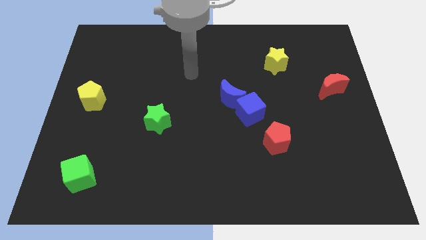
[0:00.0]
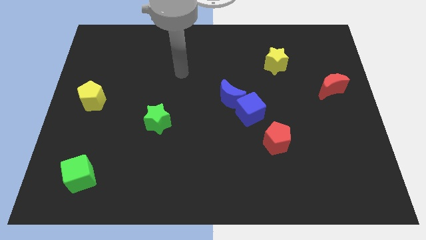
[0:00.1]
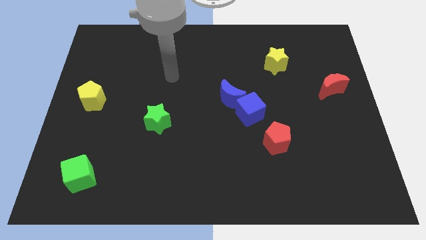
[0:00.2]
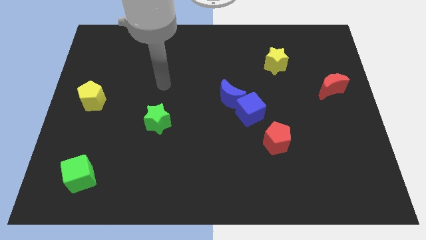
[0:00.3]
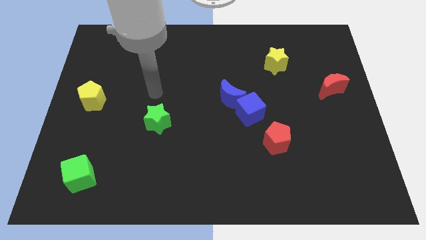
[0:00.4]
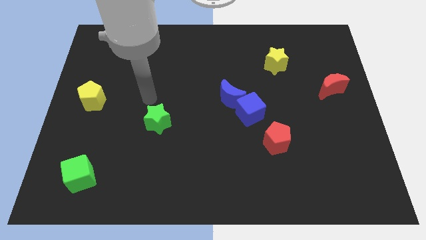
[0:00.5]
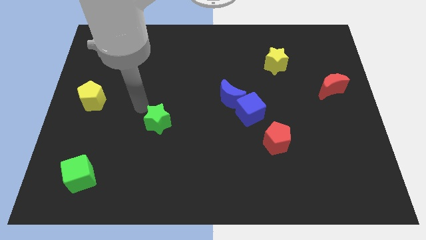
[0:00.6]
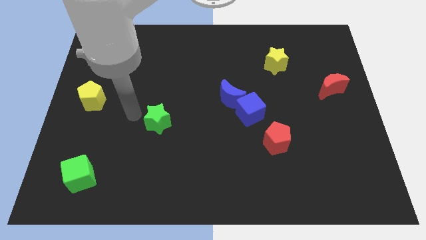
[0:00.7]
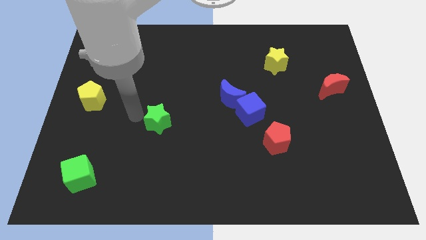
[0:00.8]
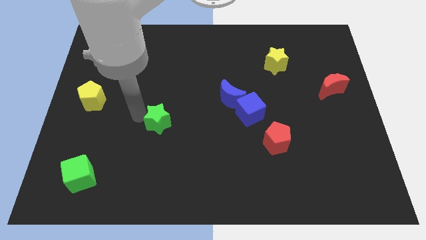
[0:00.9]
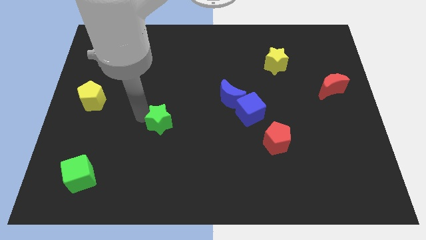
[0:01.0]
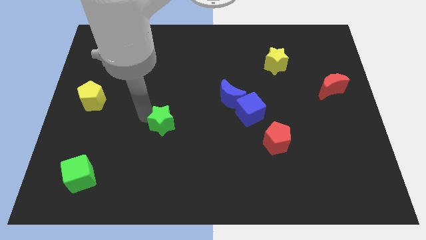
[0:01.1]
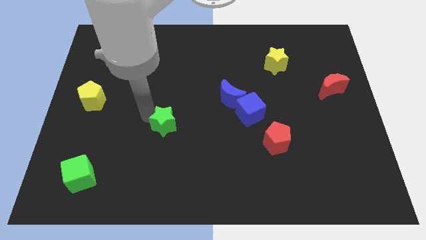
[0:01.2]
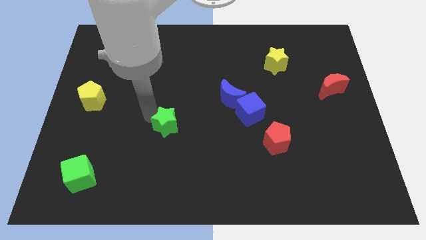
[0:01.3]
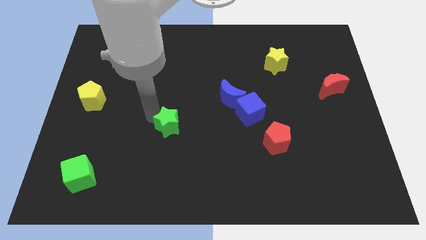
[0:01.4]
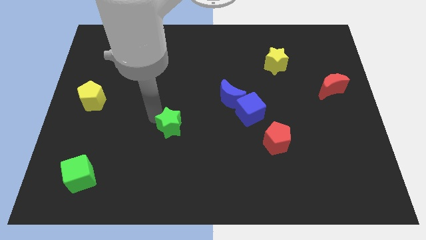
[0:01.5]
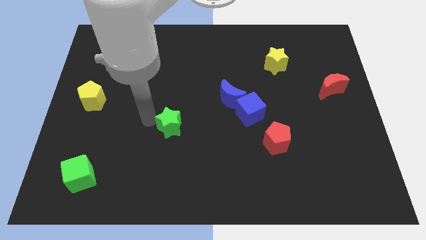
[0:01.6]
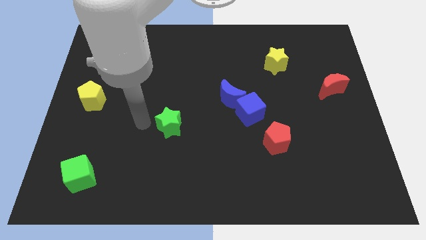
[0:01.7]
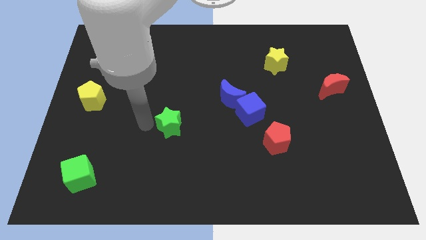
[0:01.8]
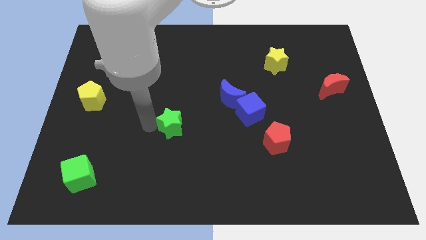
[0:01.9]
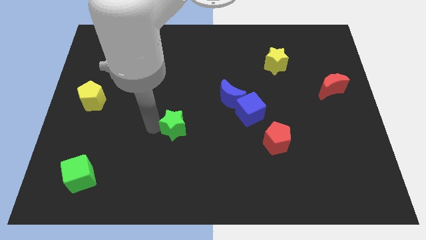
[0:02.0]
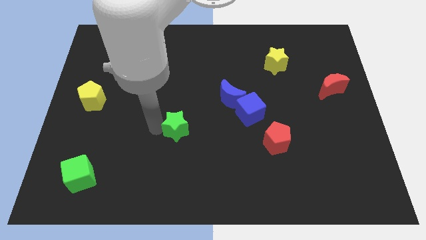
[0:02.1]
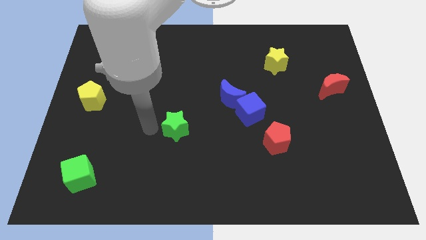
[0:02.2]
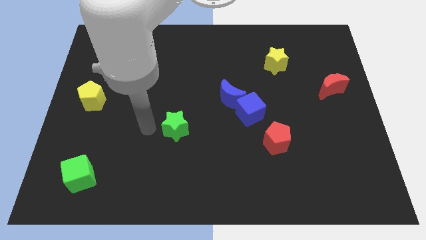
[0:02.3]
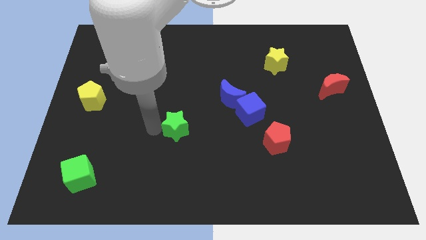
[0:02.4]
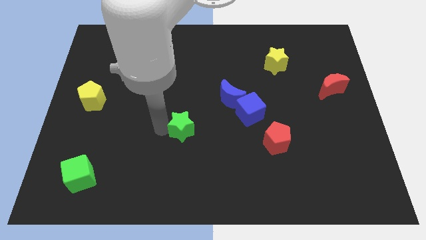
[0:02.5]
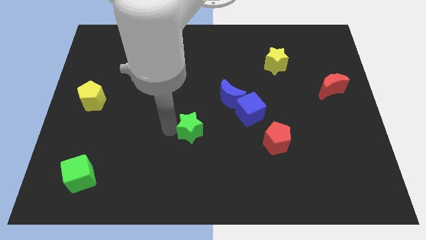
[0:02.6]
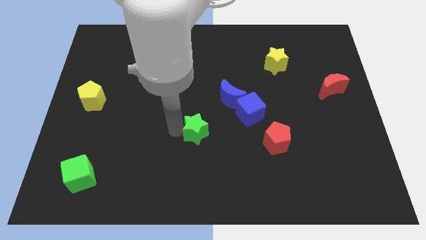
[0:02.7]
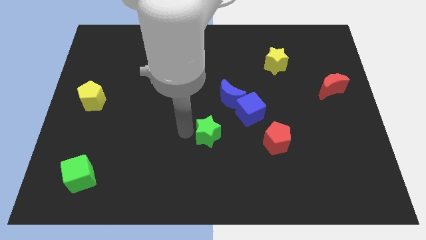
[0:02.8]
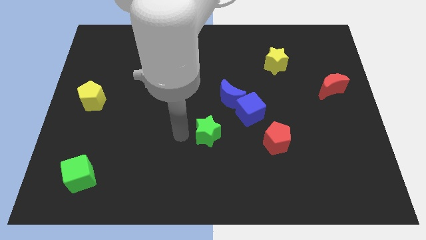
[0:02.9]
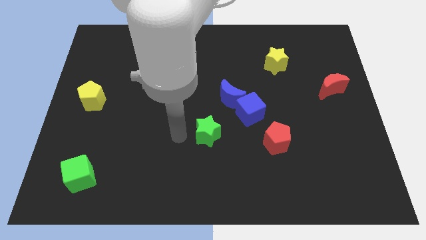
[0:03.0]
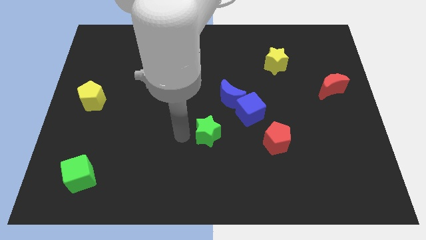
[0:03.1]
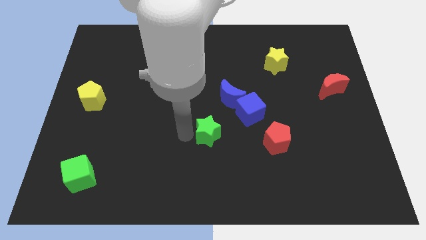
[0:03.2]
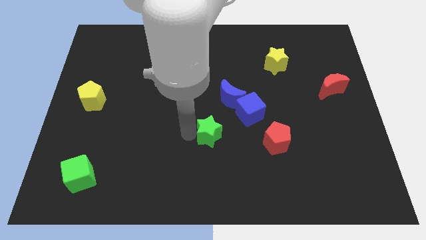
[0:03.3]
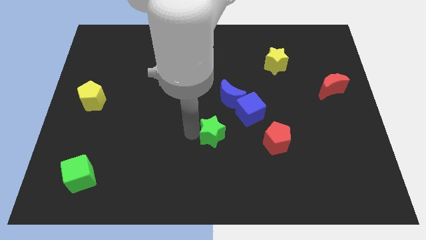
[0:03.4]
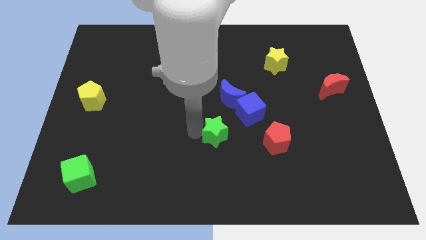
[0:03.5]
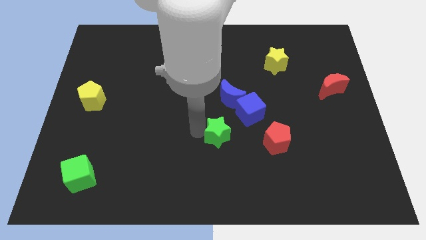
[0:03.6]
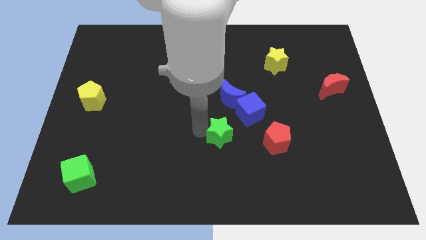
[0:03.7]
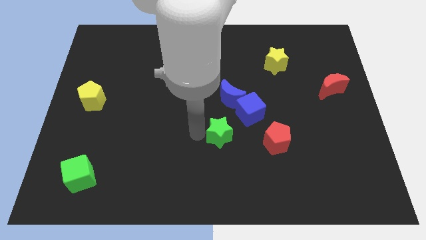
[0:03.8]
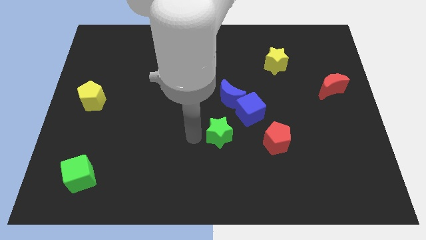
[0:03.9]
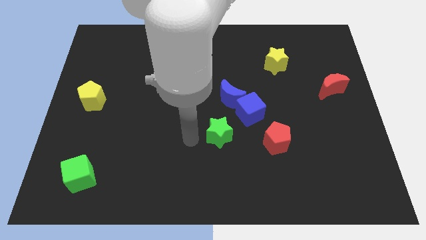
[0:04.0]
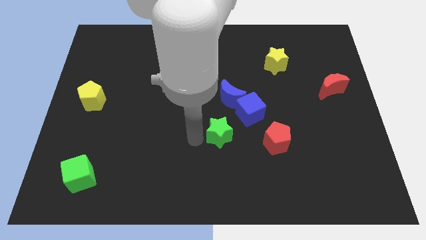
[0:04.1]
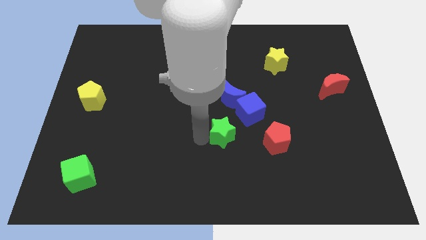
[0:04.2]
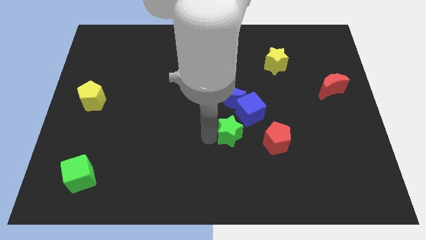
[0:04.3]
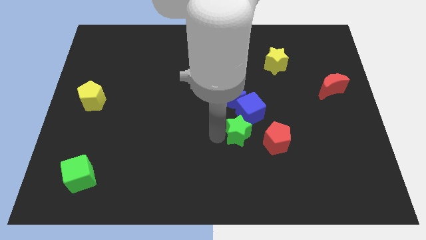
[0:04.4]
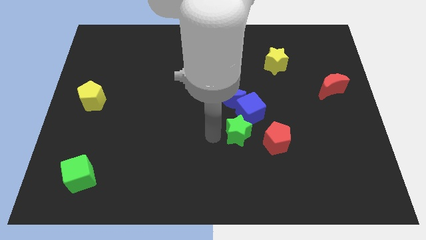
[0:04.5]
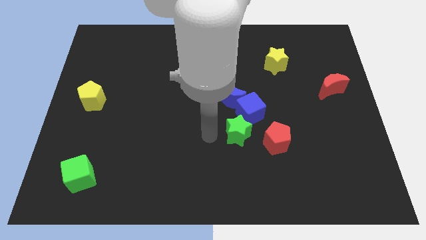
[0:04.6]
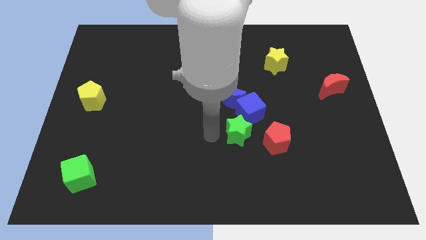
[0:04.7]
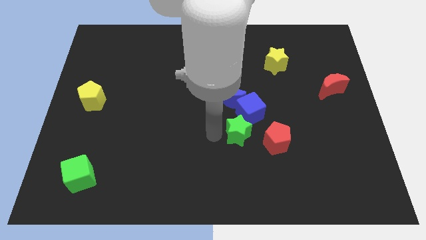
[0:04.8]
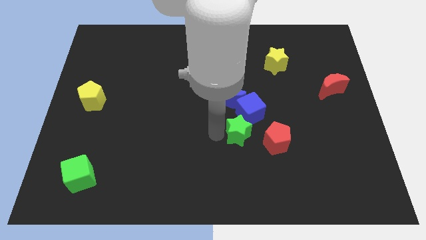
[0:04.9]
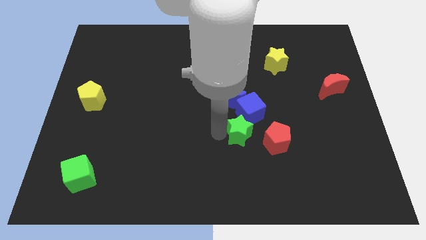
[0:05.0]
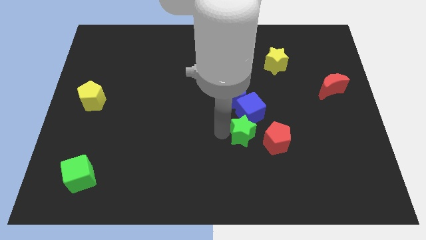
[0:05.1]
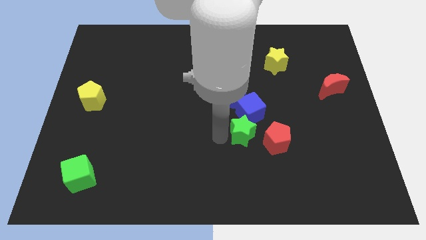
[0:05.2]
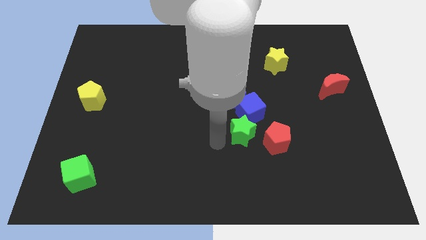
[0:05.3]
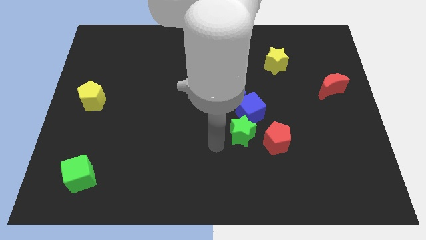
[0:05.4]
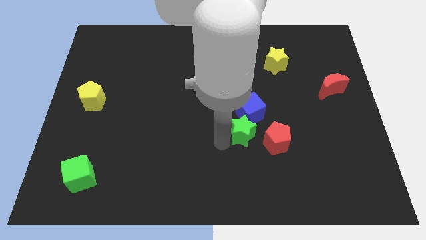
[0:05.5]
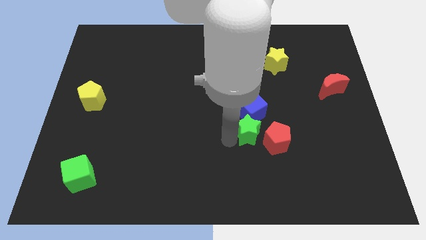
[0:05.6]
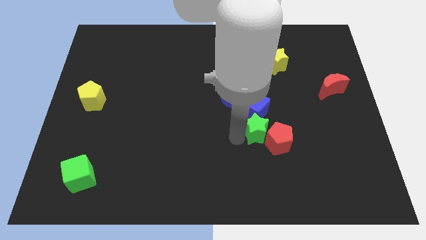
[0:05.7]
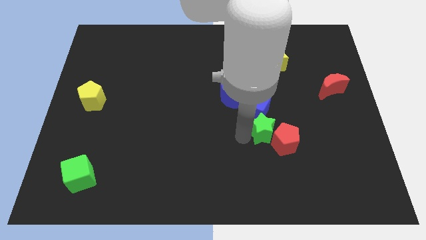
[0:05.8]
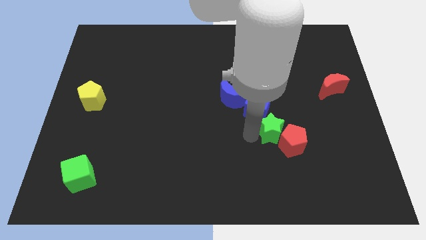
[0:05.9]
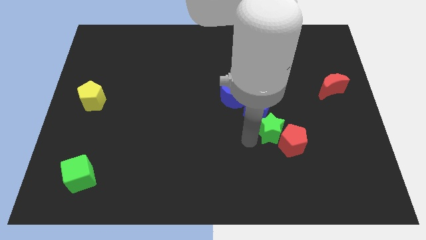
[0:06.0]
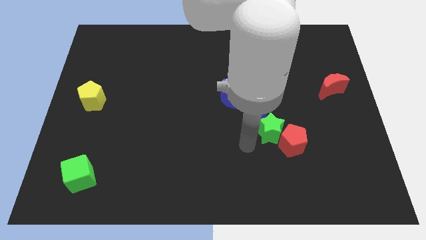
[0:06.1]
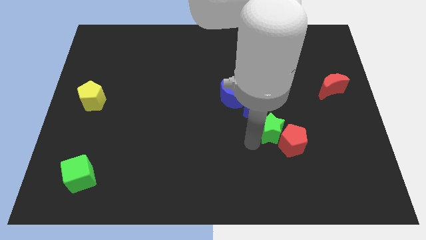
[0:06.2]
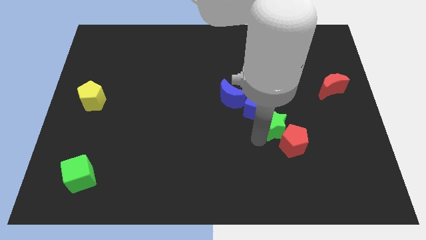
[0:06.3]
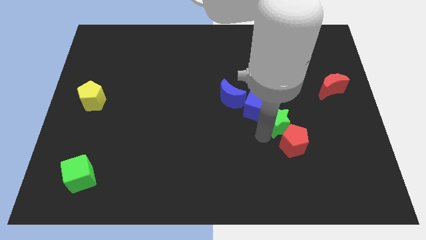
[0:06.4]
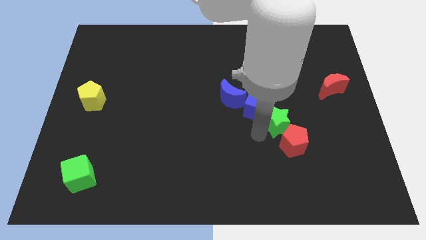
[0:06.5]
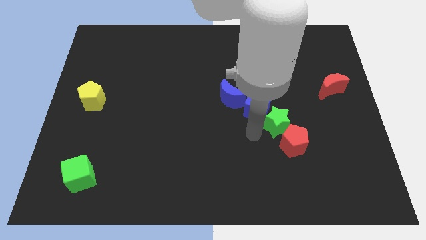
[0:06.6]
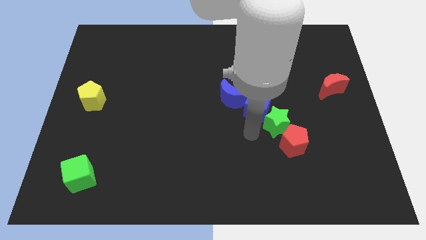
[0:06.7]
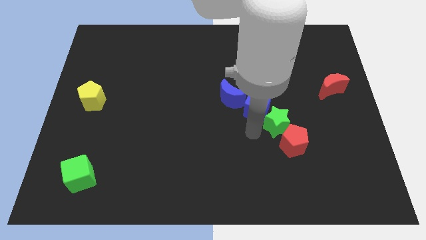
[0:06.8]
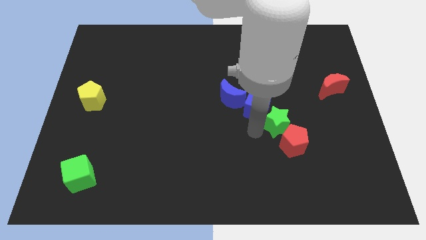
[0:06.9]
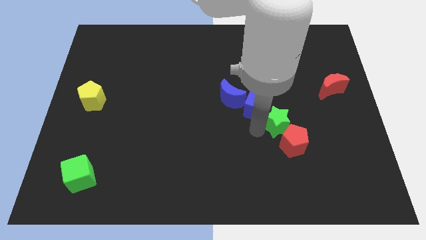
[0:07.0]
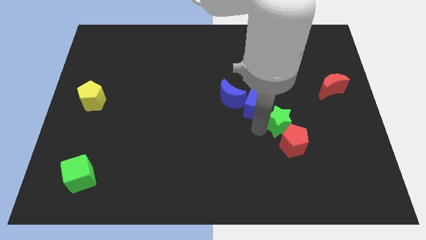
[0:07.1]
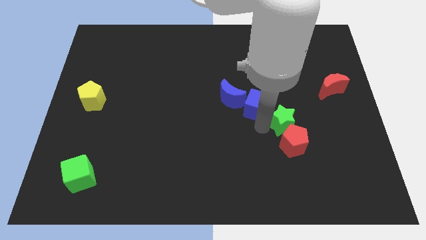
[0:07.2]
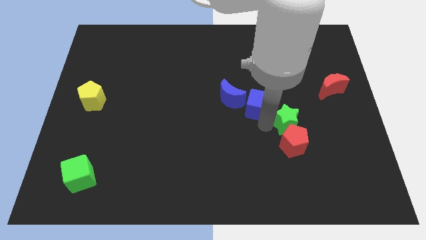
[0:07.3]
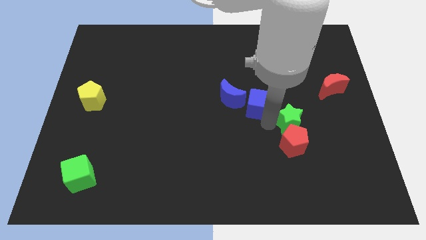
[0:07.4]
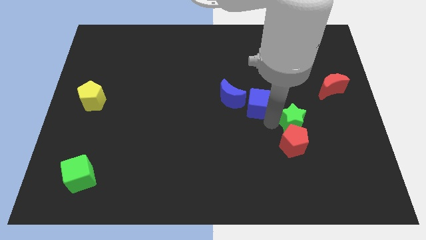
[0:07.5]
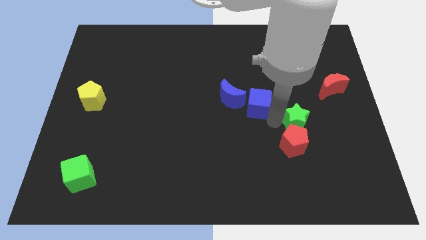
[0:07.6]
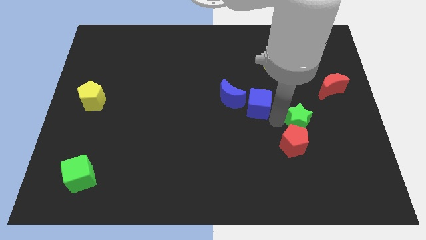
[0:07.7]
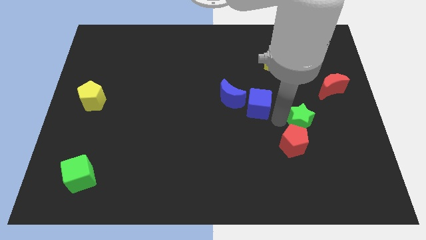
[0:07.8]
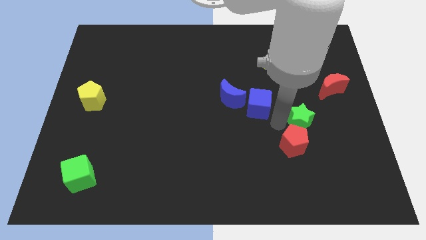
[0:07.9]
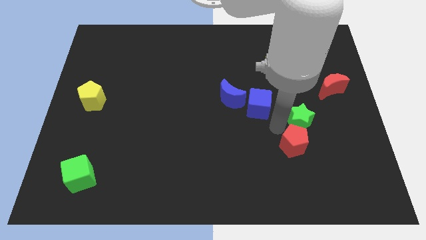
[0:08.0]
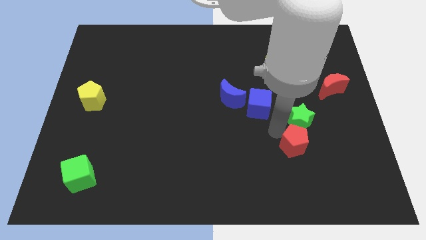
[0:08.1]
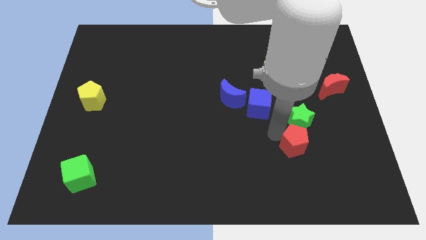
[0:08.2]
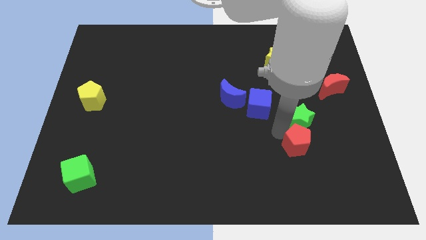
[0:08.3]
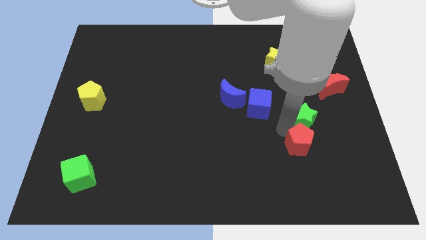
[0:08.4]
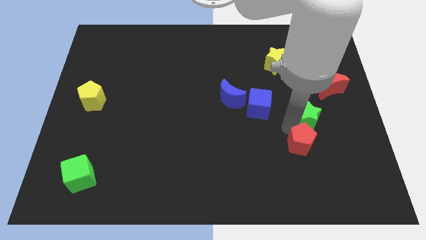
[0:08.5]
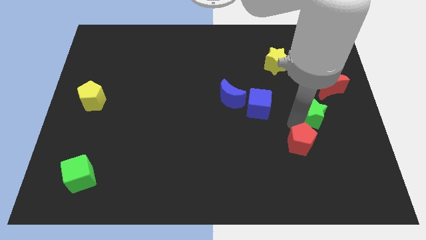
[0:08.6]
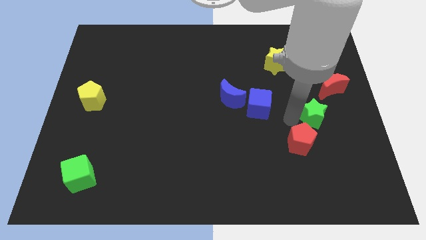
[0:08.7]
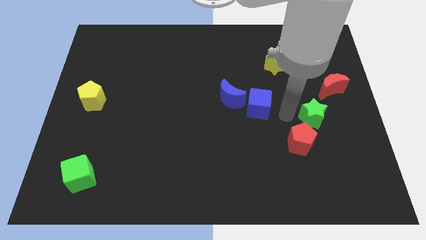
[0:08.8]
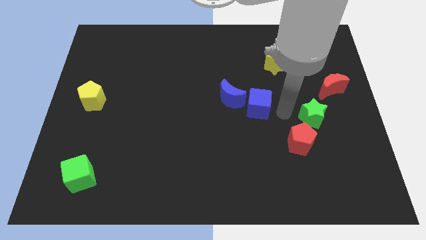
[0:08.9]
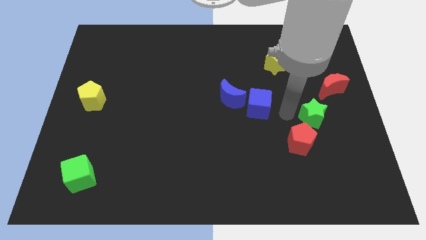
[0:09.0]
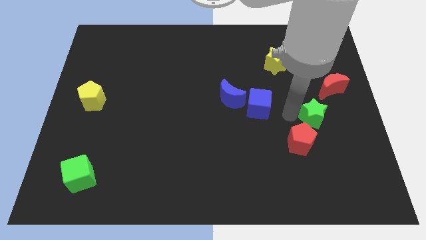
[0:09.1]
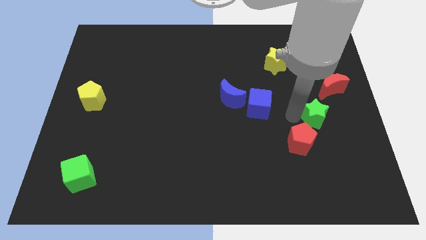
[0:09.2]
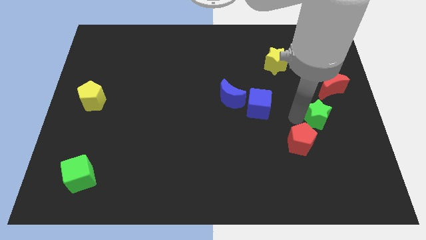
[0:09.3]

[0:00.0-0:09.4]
put the green star to the bottom side of the red moon
